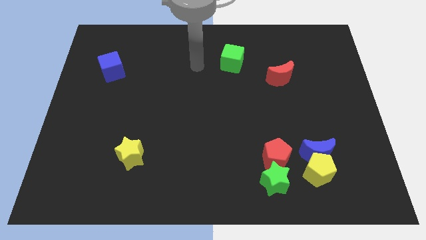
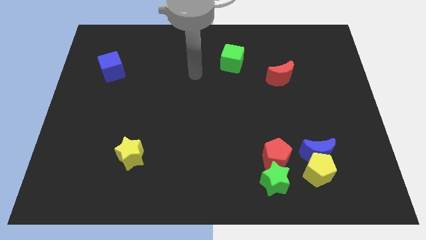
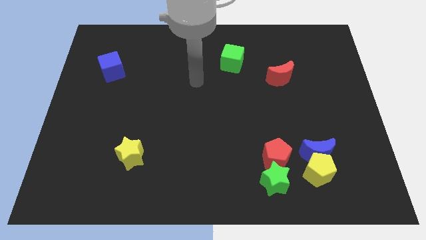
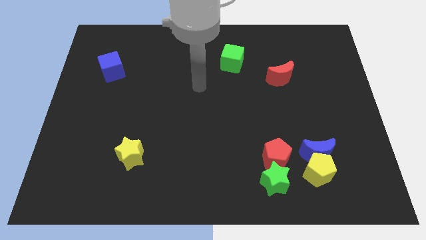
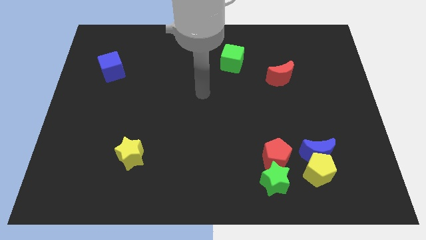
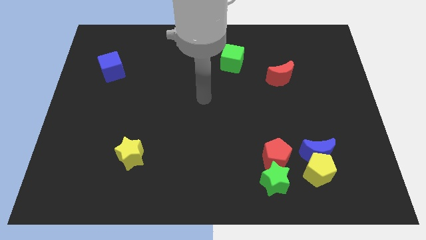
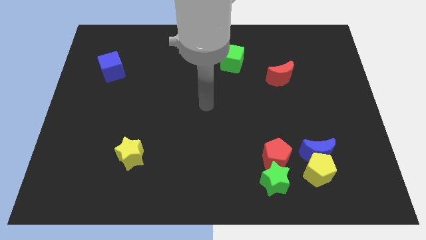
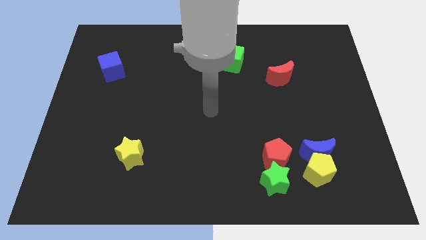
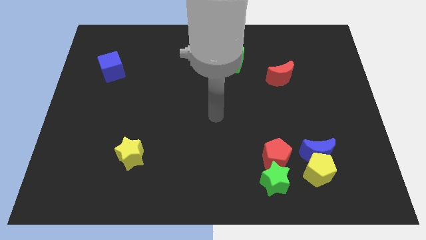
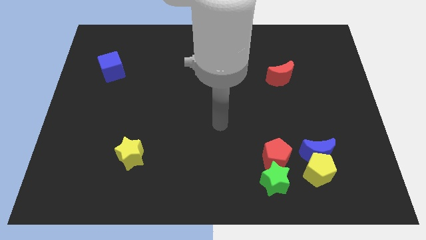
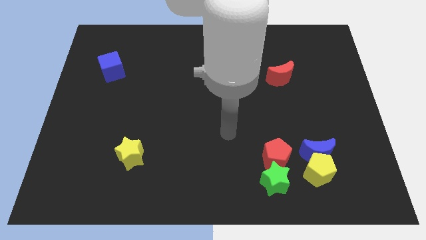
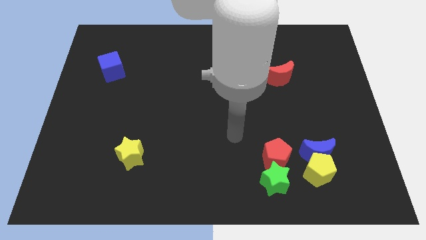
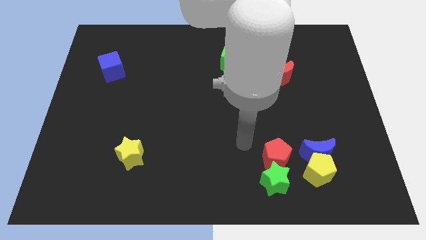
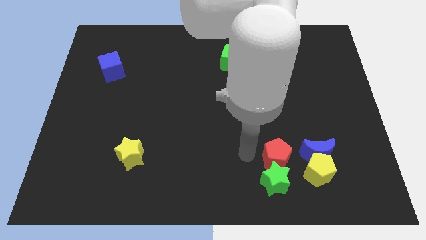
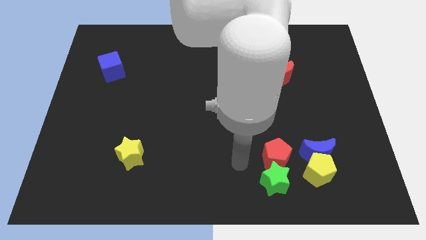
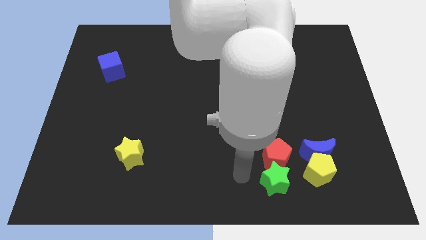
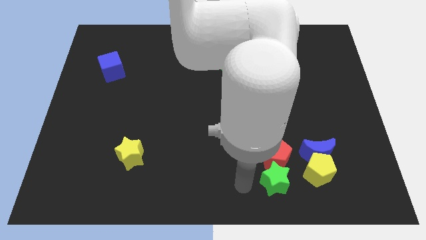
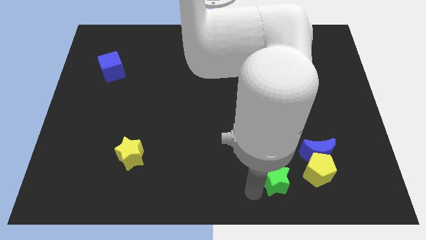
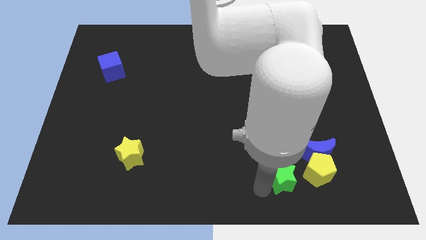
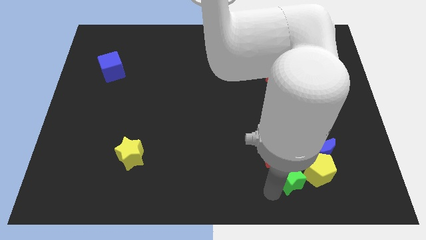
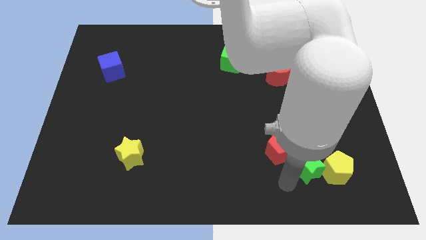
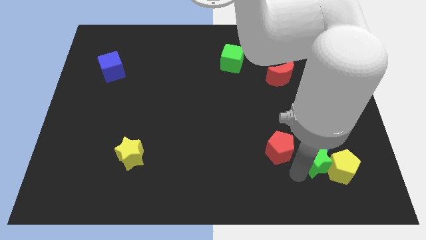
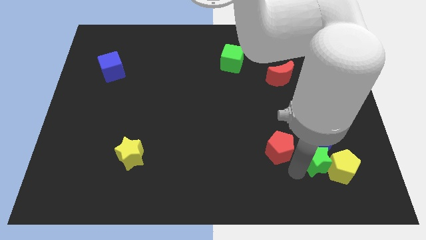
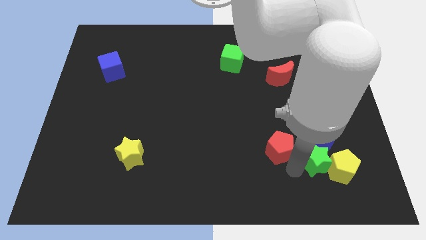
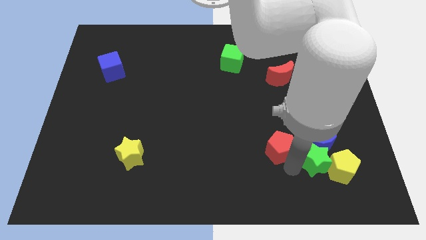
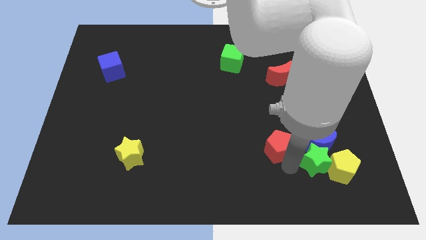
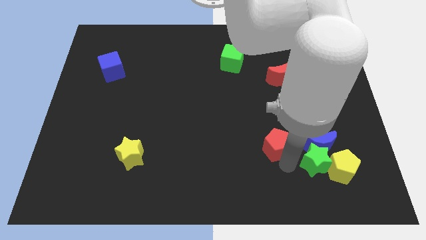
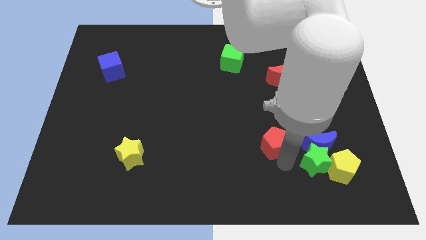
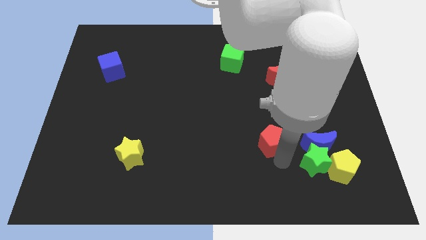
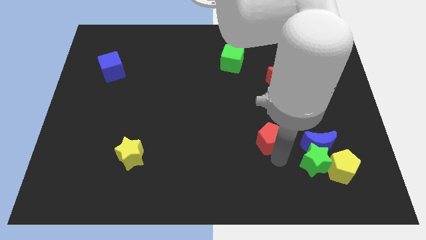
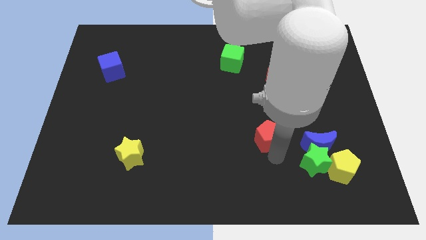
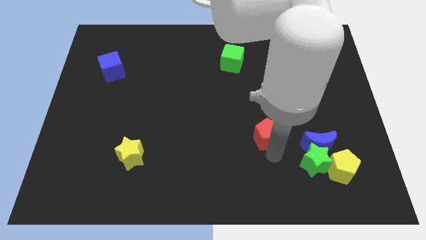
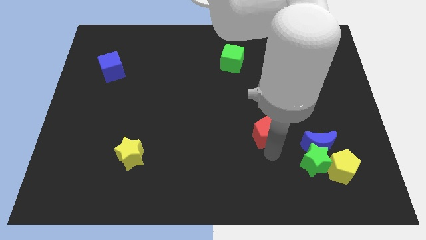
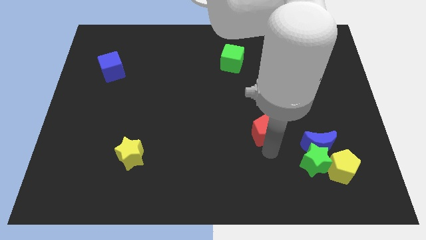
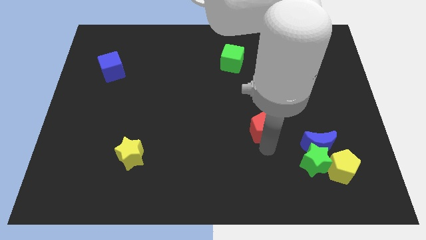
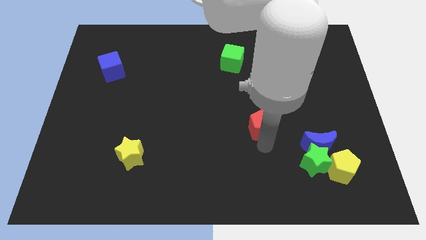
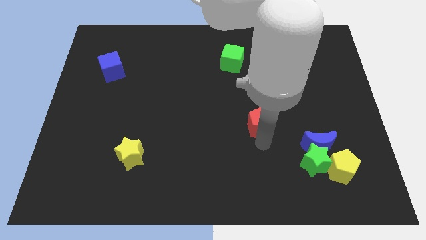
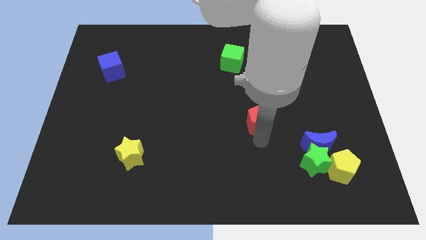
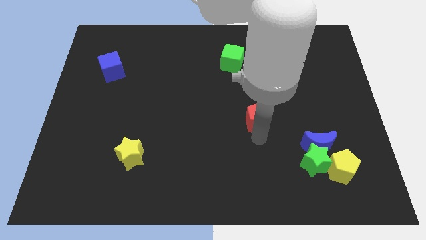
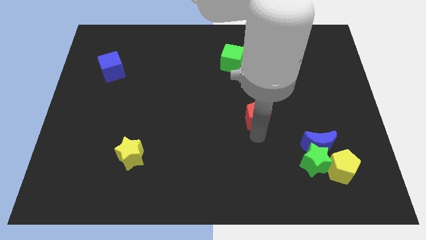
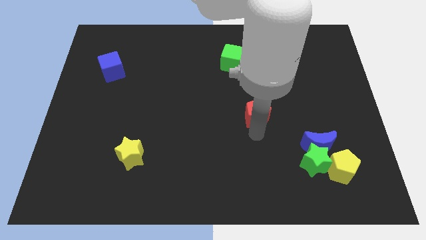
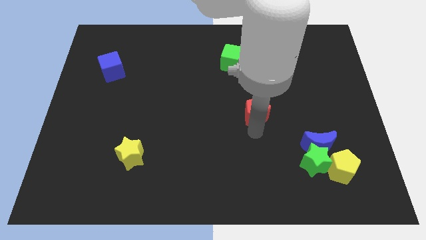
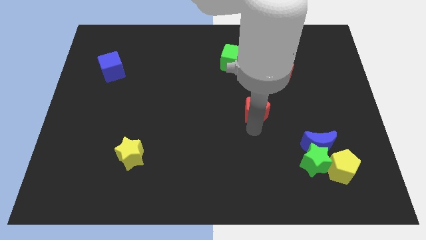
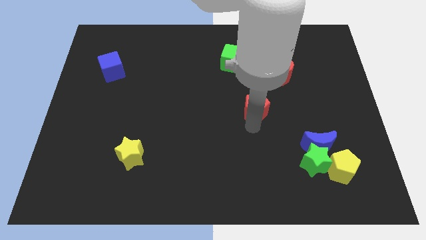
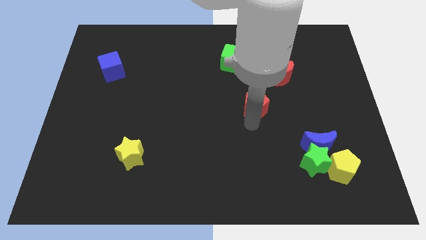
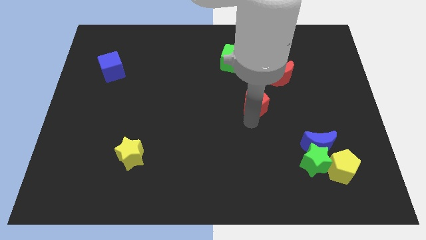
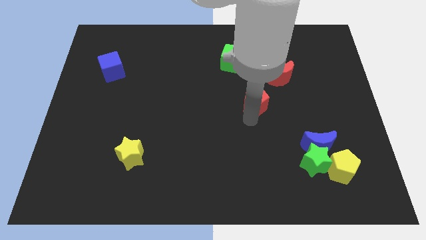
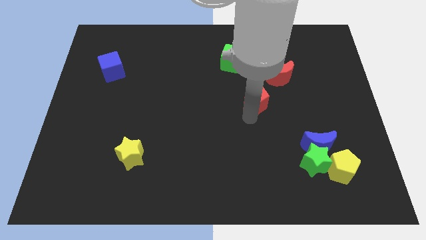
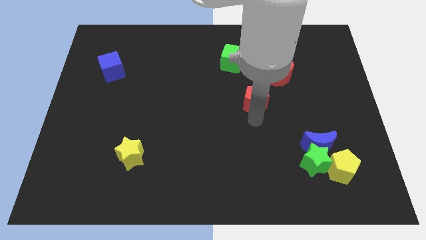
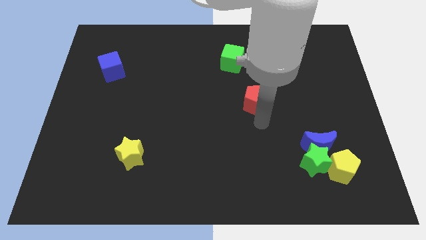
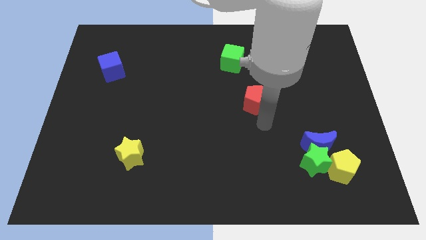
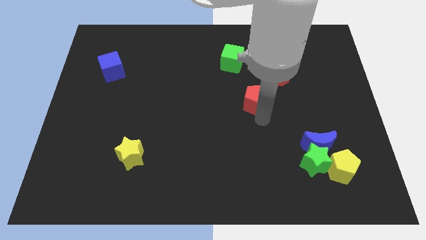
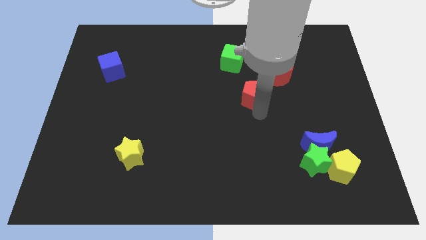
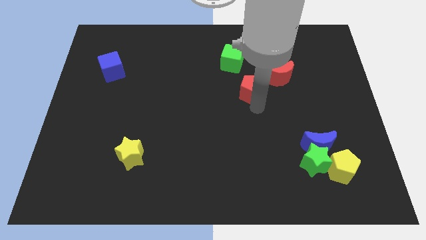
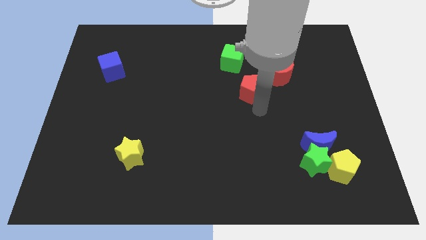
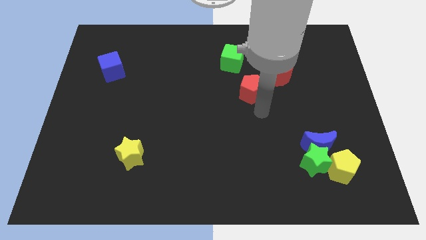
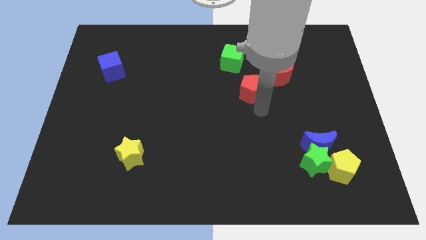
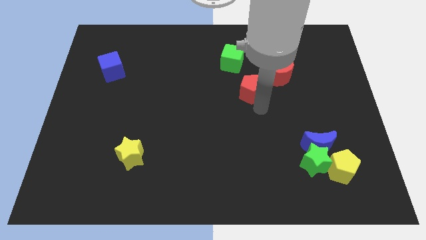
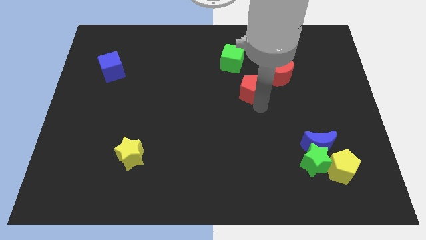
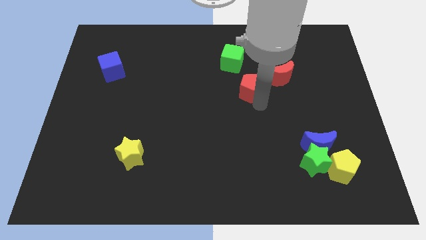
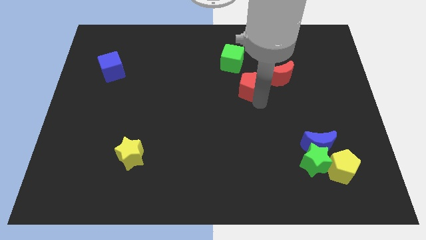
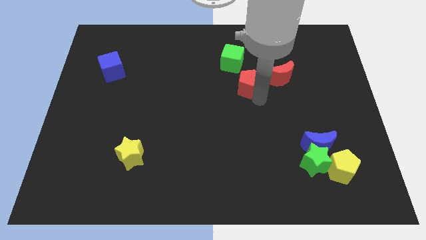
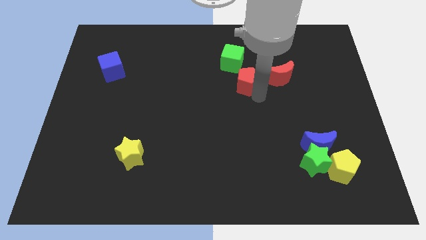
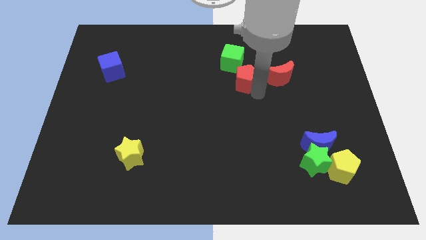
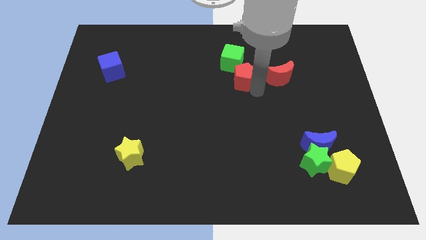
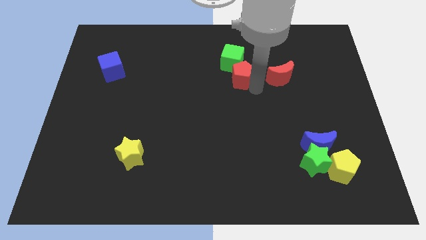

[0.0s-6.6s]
put the red pentagon next to the green cube

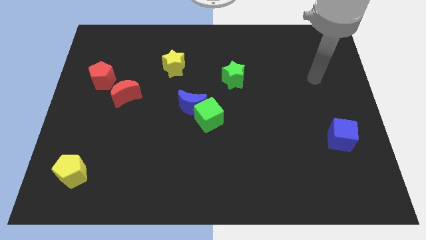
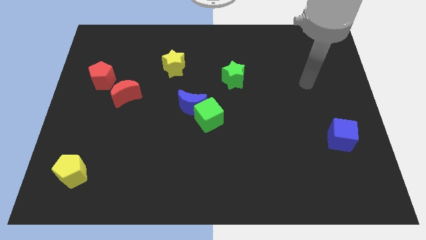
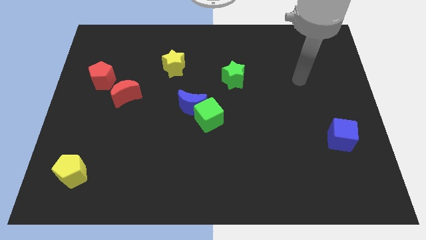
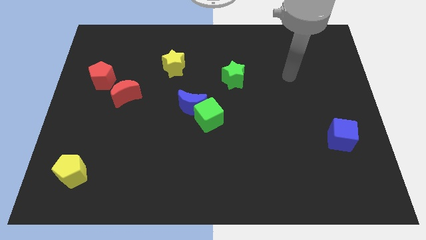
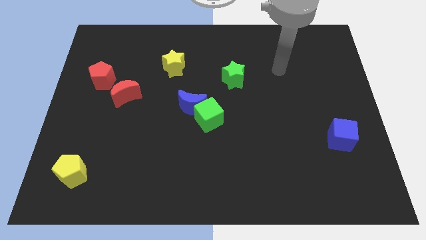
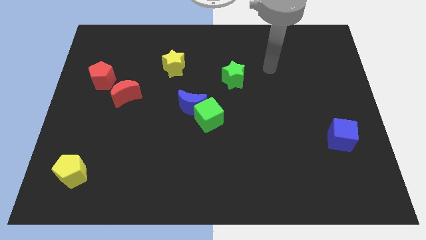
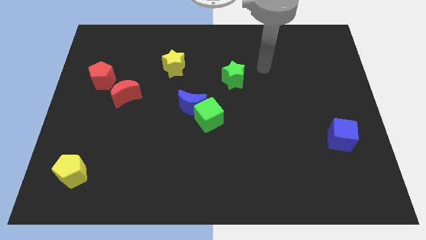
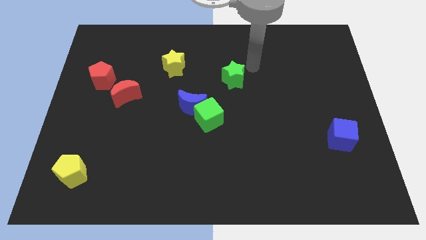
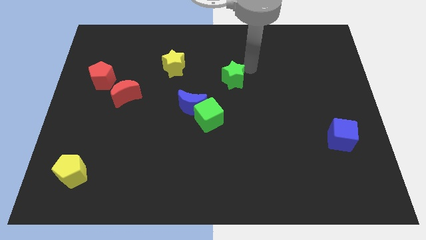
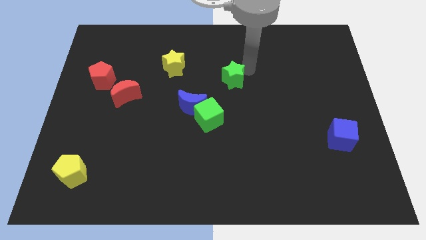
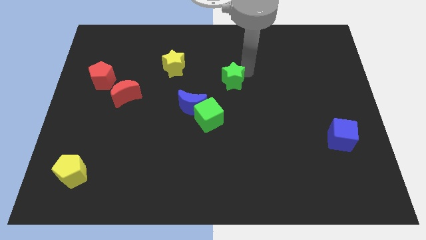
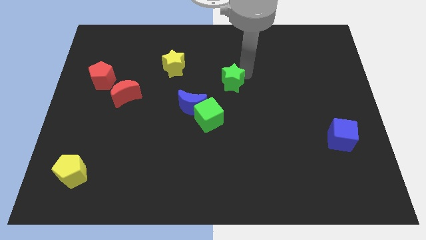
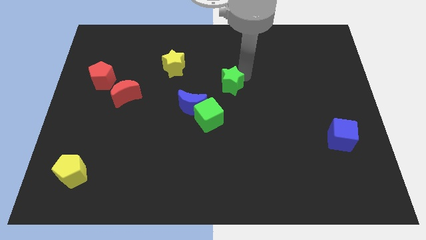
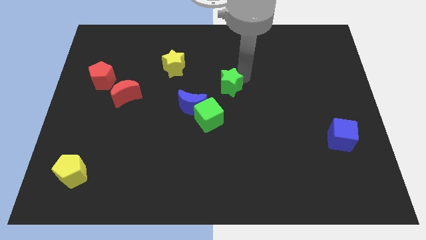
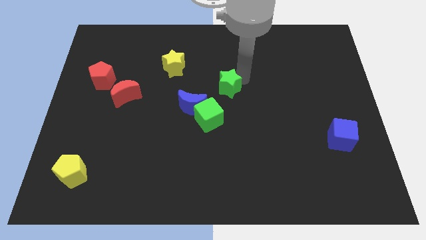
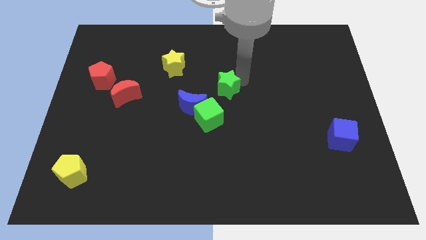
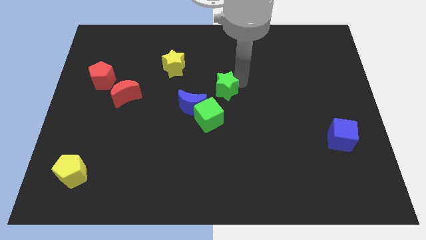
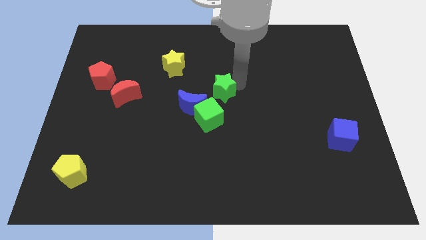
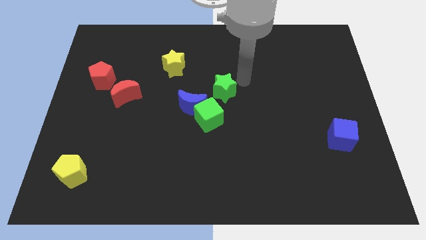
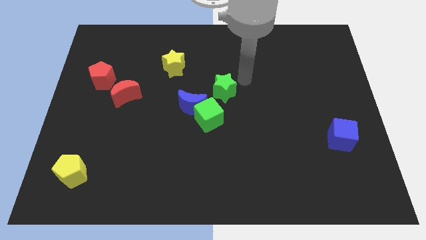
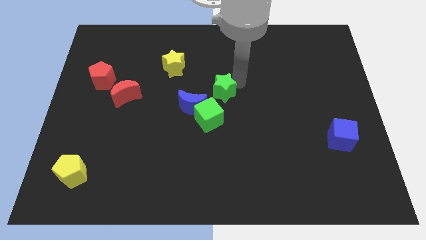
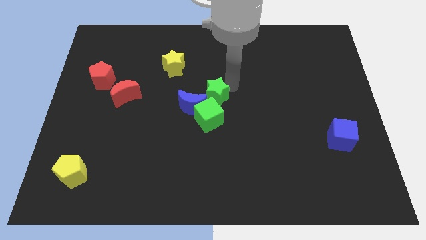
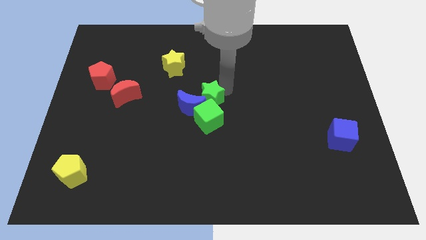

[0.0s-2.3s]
push the green star towards the blue moon
